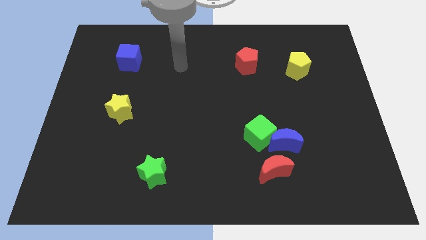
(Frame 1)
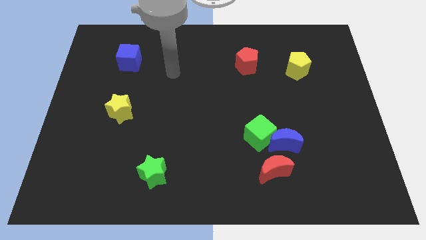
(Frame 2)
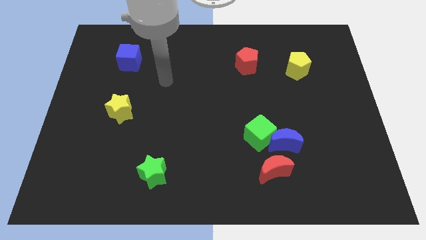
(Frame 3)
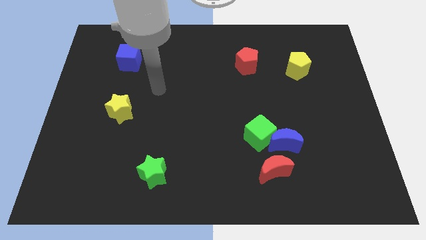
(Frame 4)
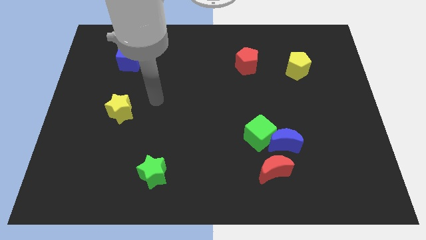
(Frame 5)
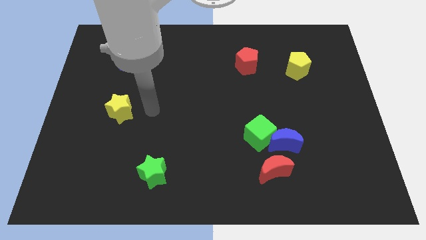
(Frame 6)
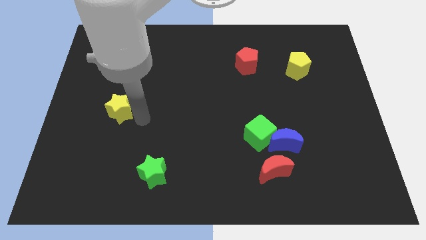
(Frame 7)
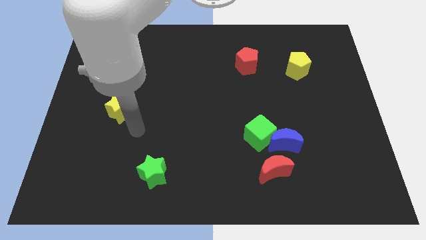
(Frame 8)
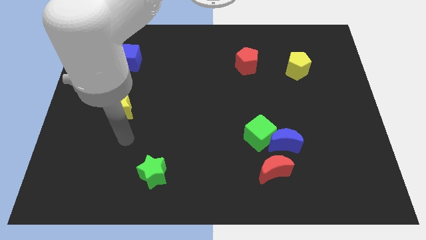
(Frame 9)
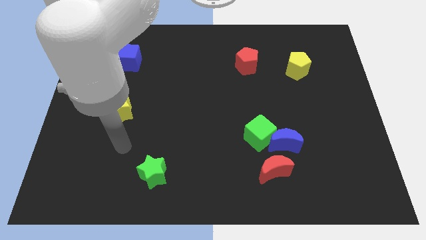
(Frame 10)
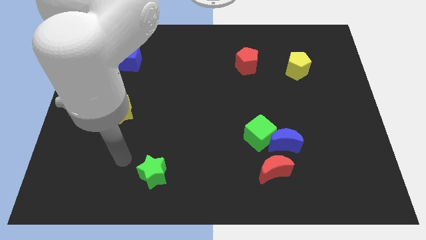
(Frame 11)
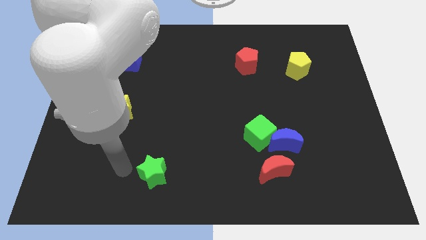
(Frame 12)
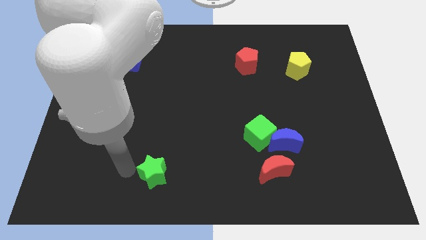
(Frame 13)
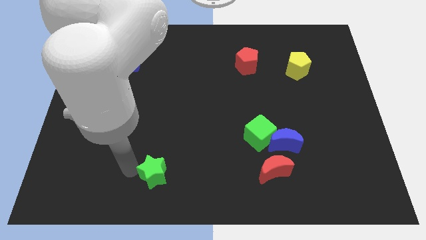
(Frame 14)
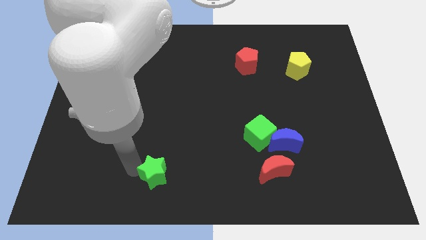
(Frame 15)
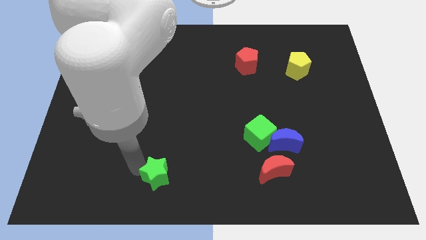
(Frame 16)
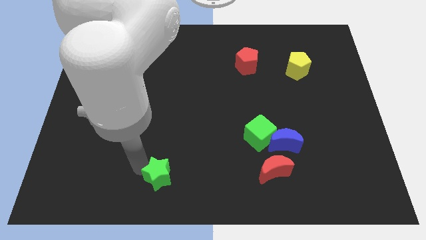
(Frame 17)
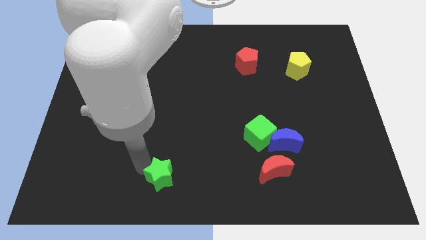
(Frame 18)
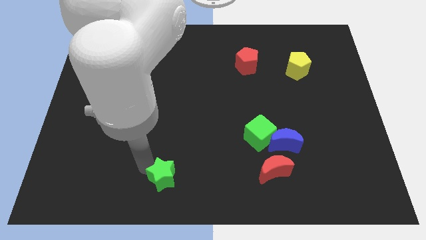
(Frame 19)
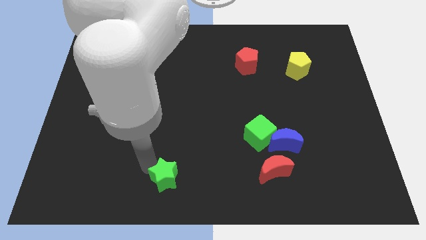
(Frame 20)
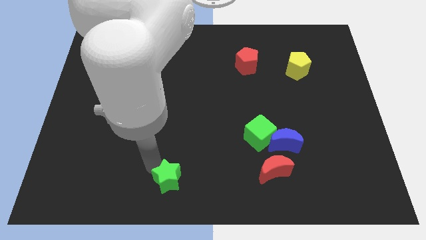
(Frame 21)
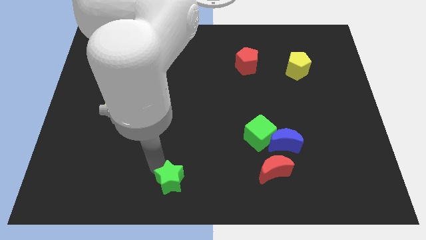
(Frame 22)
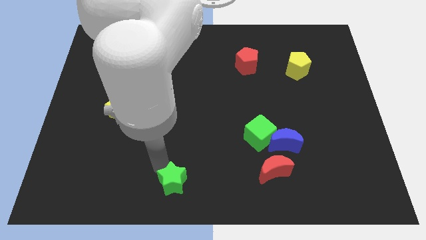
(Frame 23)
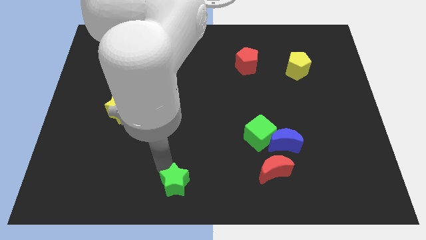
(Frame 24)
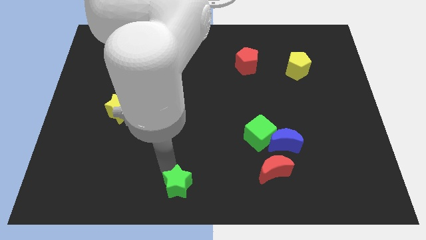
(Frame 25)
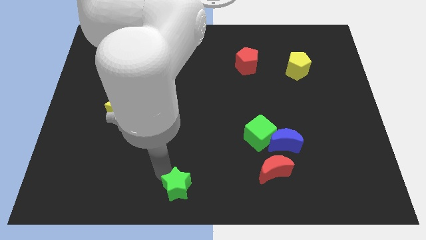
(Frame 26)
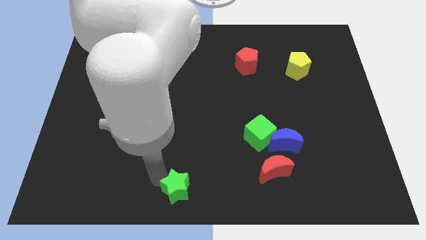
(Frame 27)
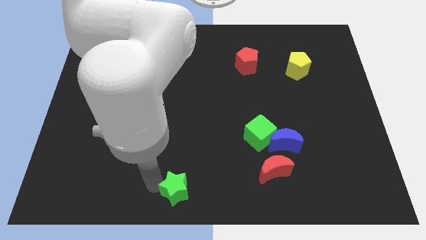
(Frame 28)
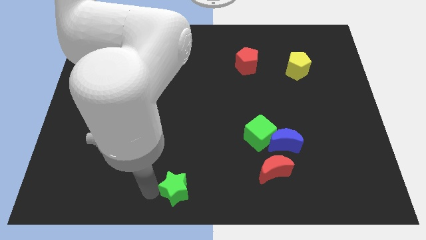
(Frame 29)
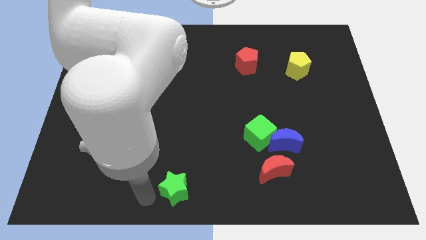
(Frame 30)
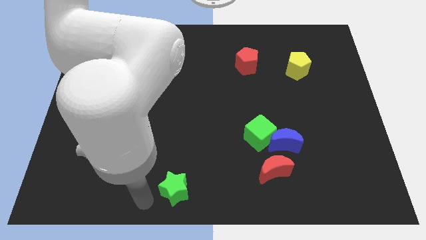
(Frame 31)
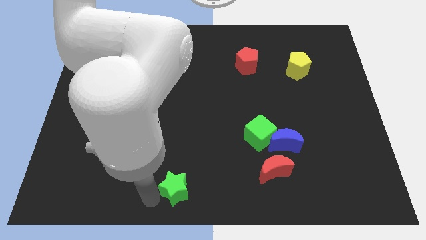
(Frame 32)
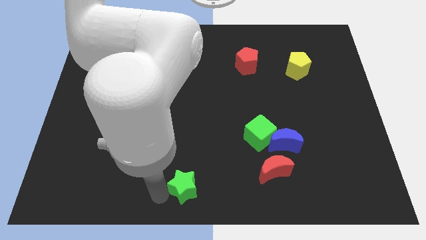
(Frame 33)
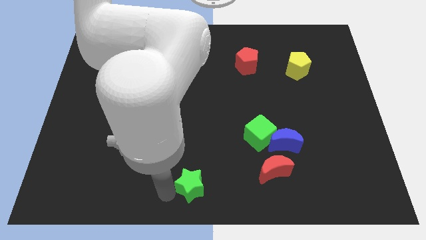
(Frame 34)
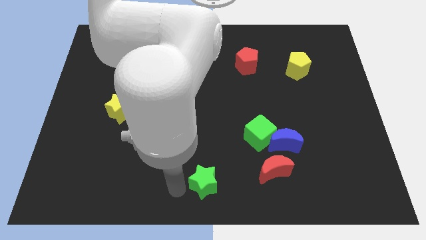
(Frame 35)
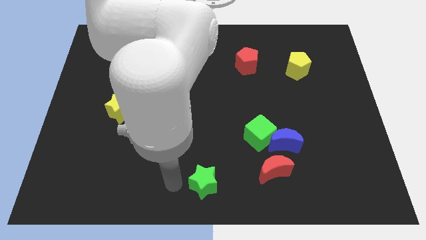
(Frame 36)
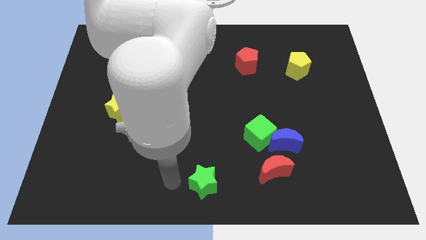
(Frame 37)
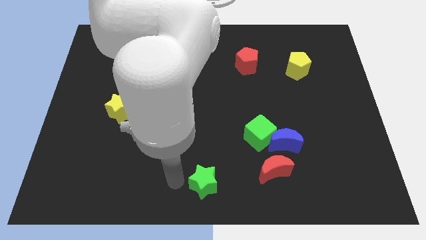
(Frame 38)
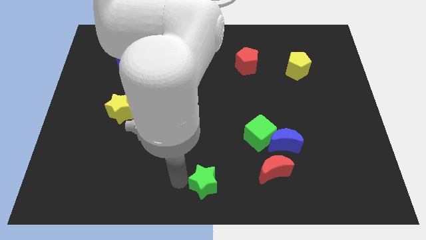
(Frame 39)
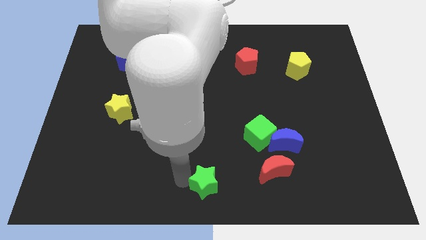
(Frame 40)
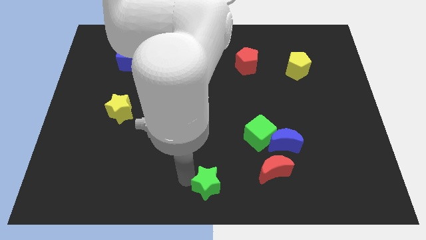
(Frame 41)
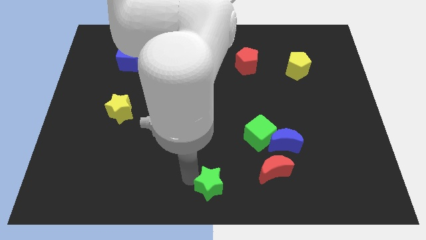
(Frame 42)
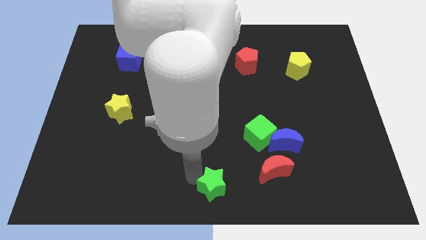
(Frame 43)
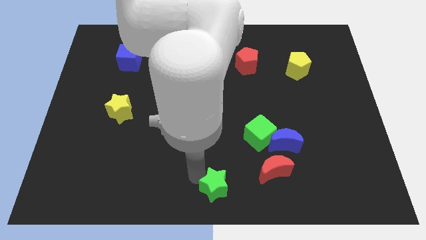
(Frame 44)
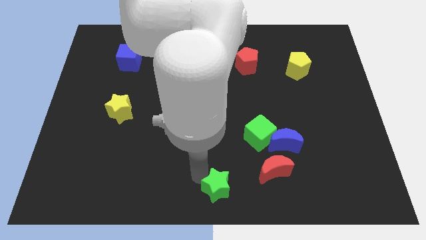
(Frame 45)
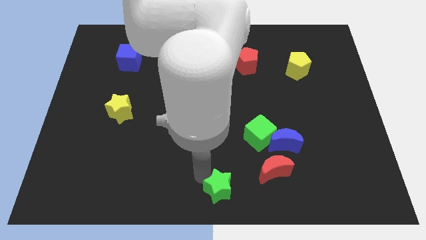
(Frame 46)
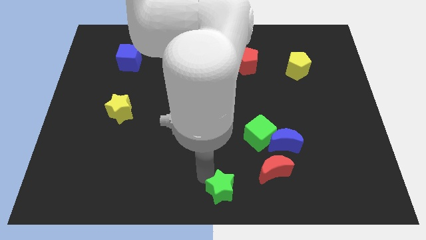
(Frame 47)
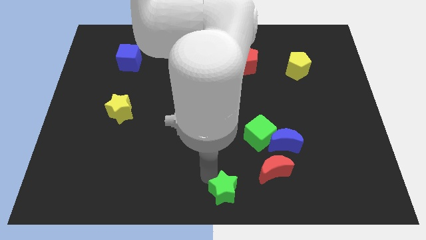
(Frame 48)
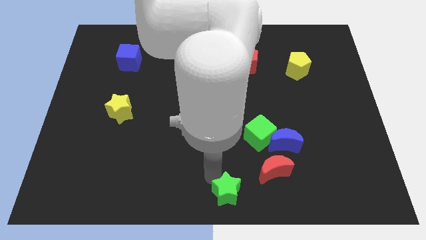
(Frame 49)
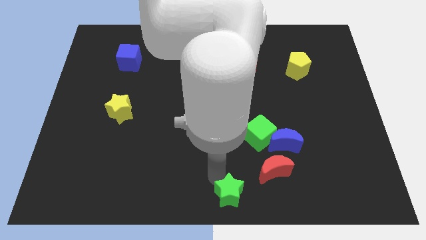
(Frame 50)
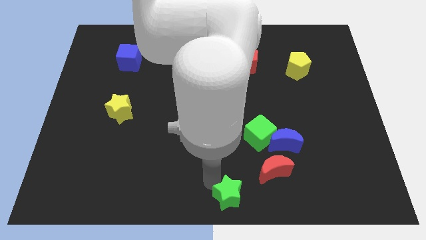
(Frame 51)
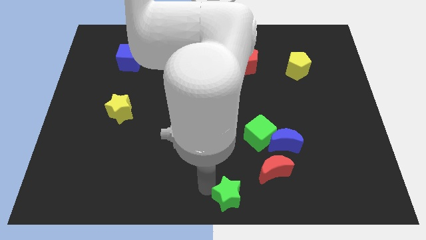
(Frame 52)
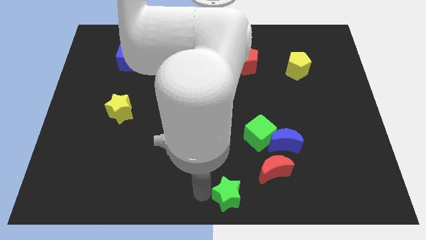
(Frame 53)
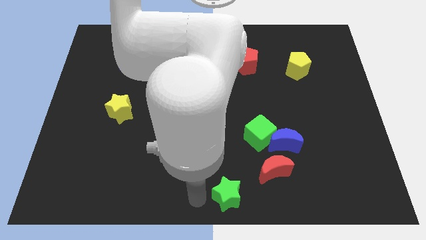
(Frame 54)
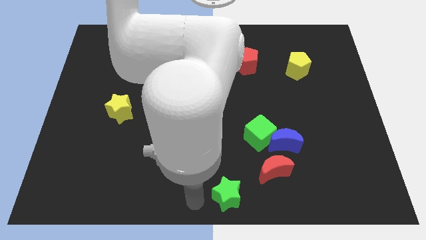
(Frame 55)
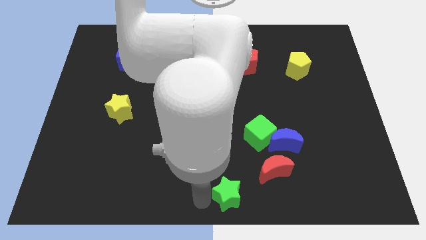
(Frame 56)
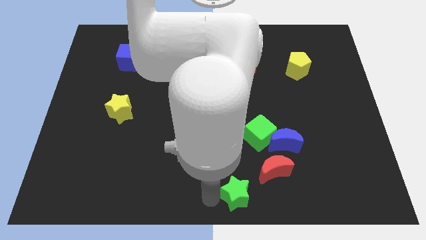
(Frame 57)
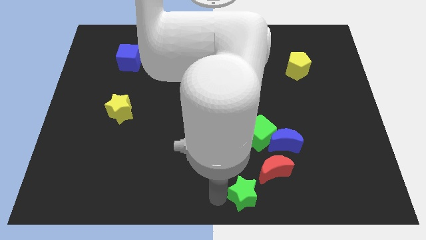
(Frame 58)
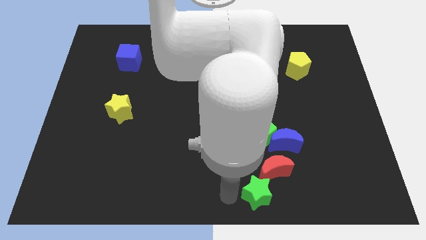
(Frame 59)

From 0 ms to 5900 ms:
slide the green star to the right

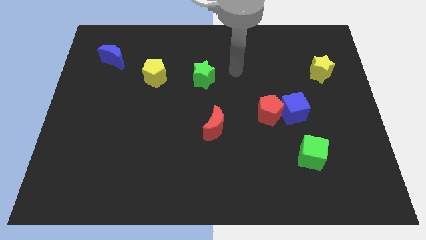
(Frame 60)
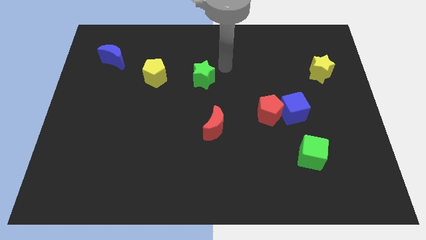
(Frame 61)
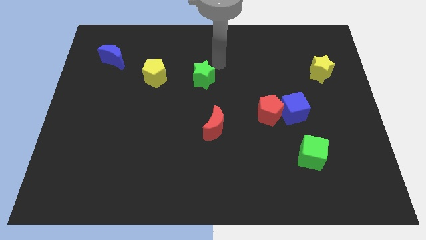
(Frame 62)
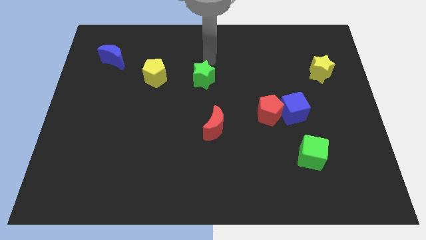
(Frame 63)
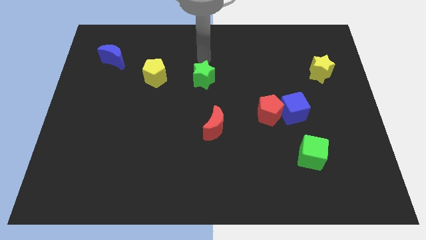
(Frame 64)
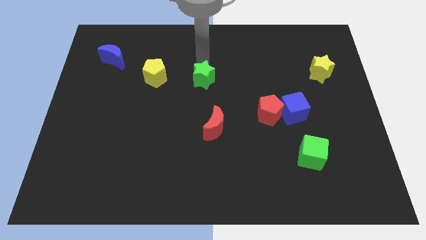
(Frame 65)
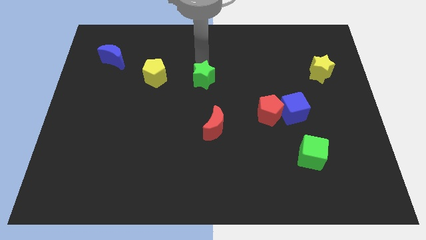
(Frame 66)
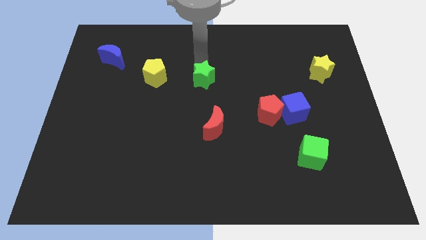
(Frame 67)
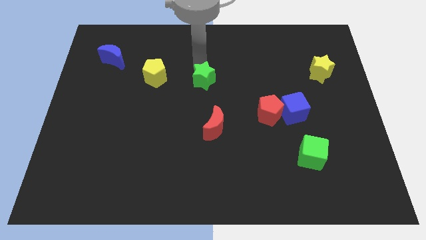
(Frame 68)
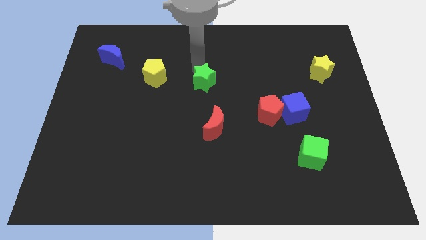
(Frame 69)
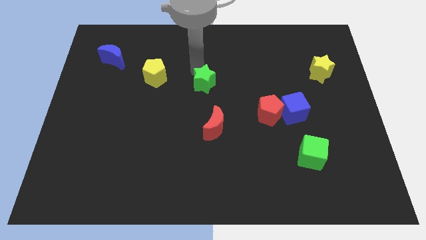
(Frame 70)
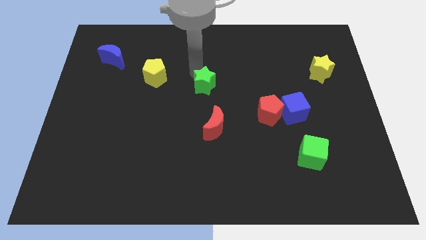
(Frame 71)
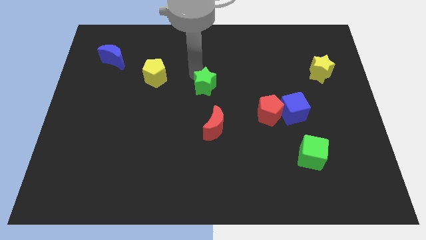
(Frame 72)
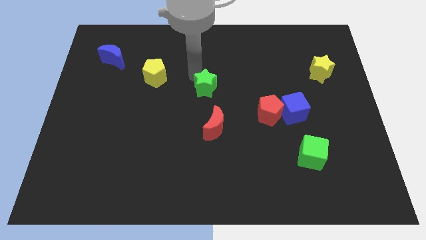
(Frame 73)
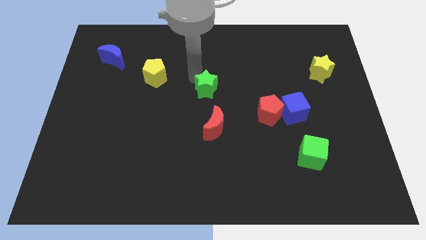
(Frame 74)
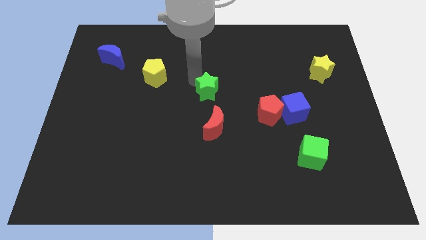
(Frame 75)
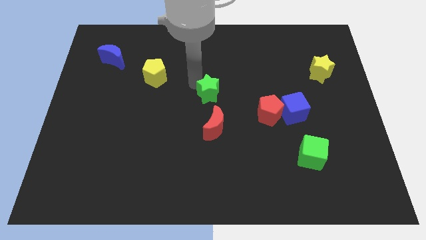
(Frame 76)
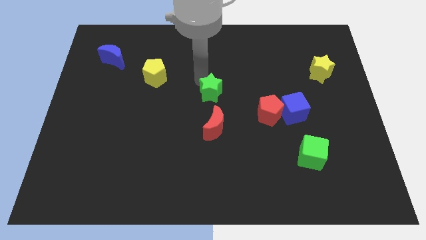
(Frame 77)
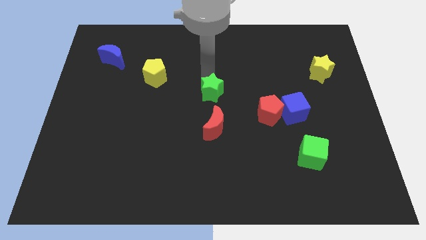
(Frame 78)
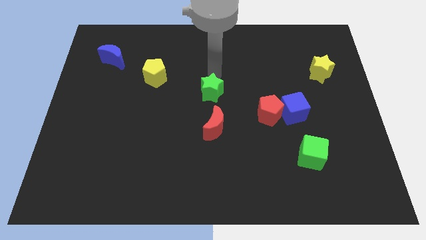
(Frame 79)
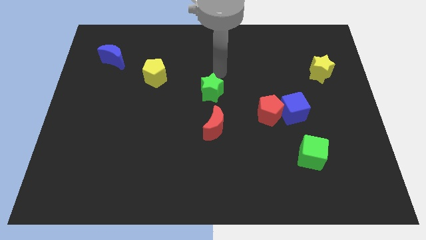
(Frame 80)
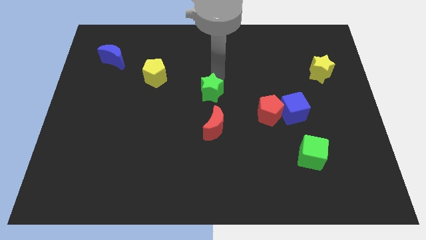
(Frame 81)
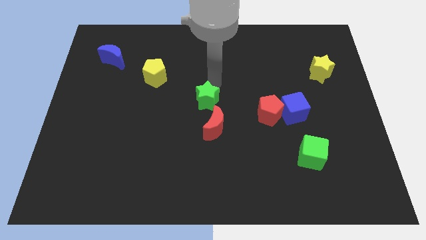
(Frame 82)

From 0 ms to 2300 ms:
move the green star down a little

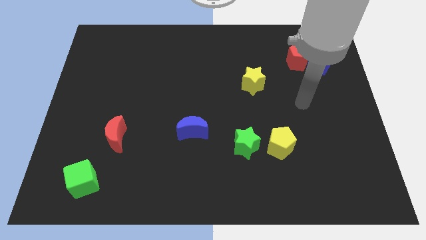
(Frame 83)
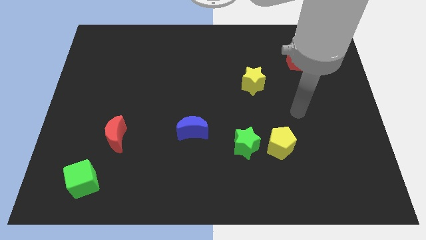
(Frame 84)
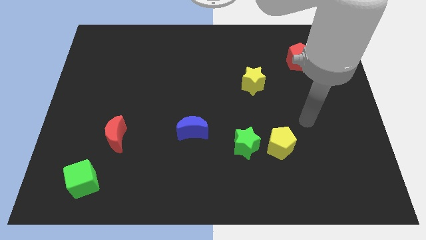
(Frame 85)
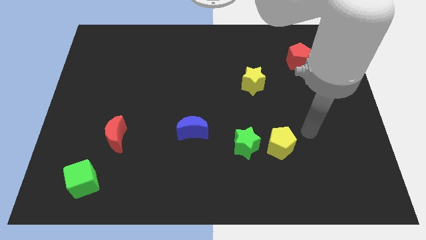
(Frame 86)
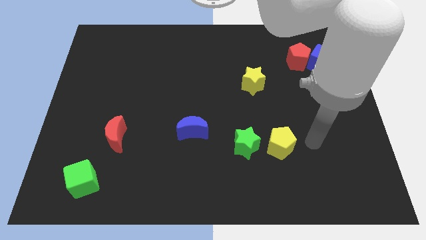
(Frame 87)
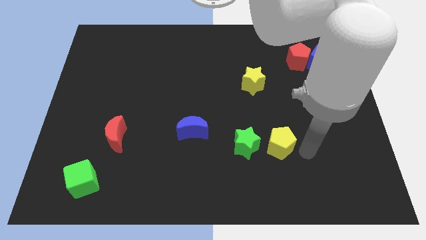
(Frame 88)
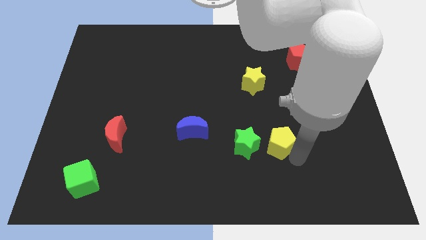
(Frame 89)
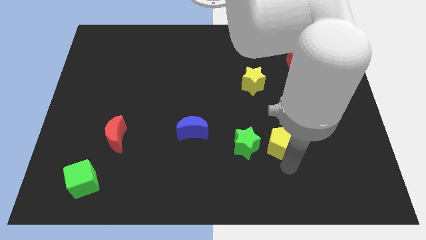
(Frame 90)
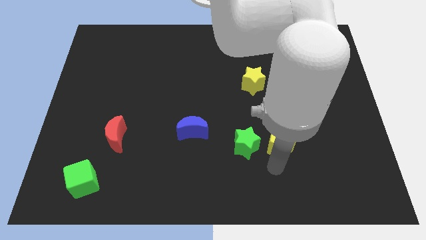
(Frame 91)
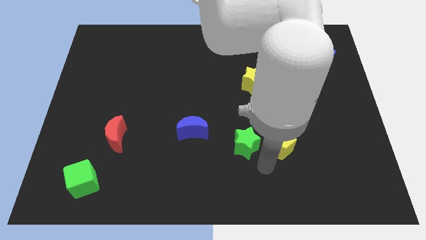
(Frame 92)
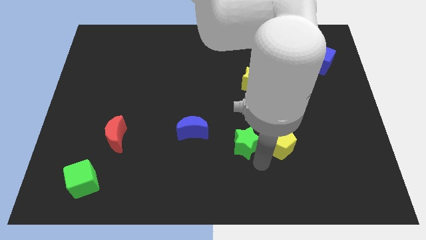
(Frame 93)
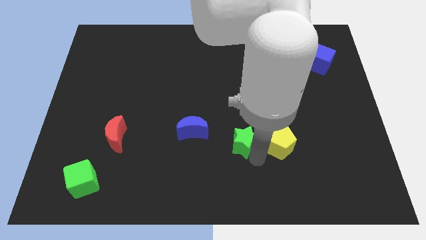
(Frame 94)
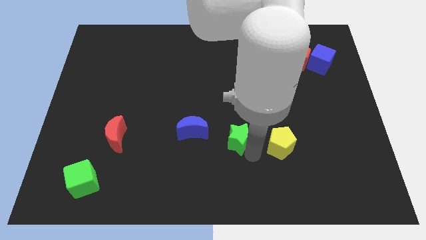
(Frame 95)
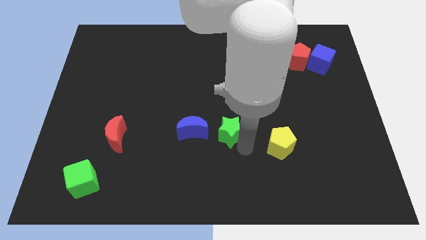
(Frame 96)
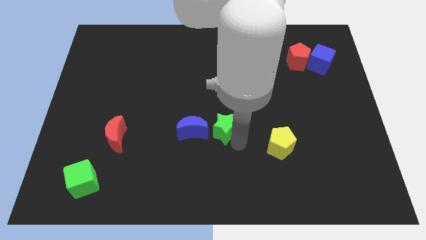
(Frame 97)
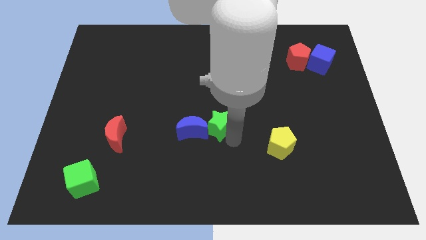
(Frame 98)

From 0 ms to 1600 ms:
push the green star slightly upwards and to the left diagonally
